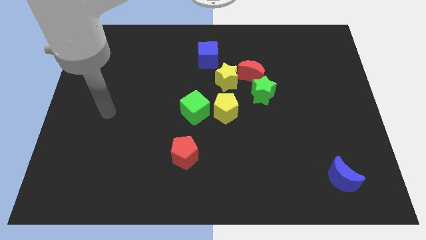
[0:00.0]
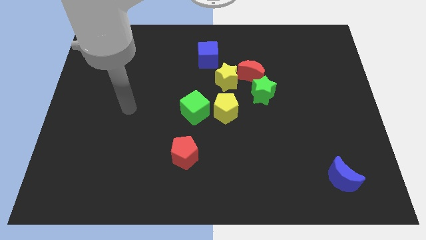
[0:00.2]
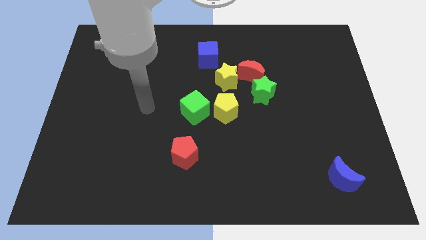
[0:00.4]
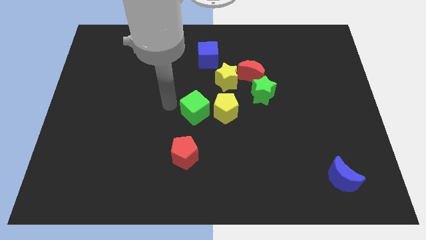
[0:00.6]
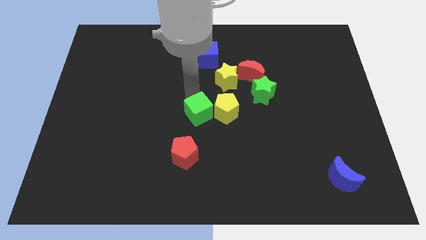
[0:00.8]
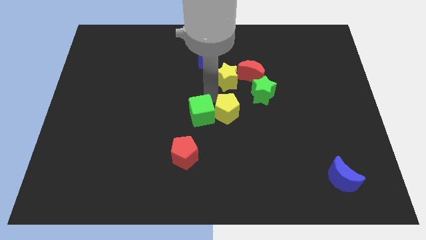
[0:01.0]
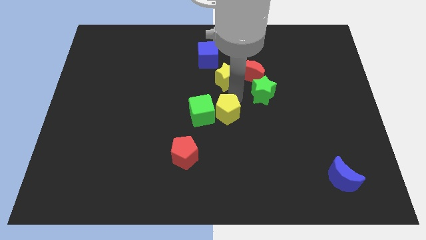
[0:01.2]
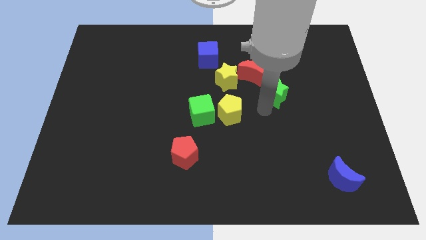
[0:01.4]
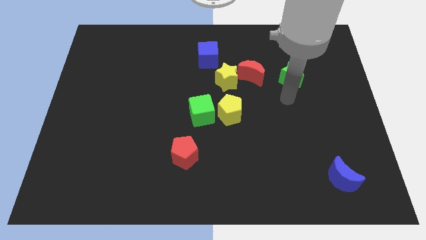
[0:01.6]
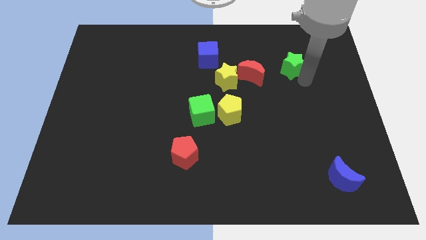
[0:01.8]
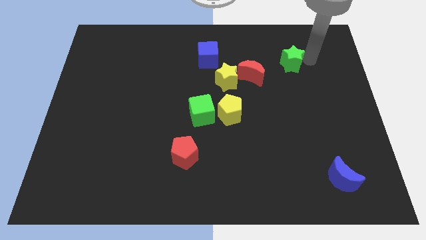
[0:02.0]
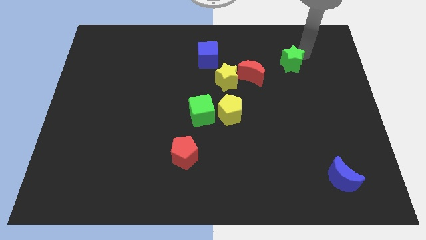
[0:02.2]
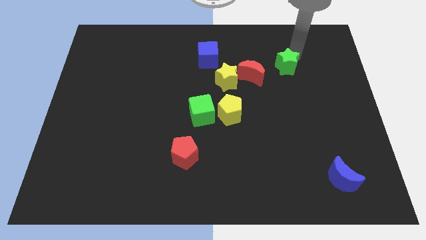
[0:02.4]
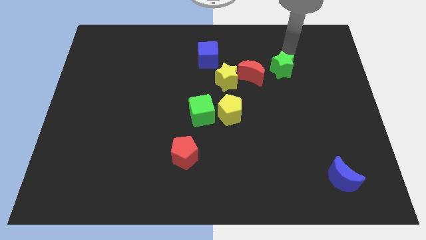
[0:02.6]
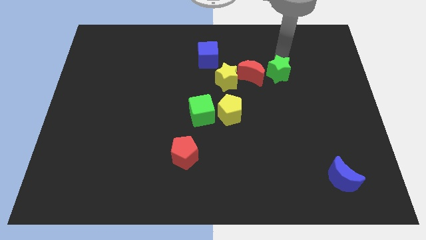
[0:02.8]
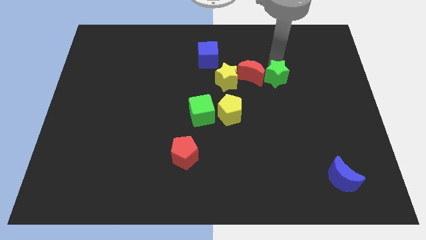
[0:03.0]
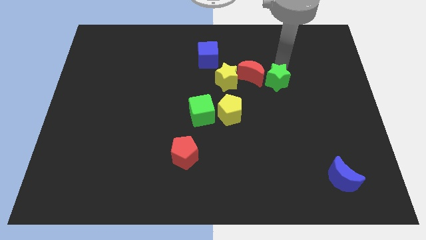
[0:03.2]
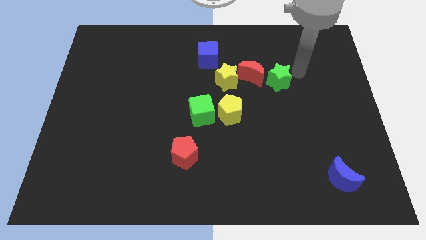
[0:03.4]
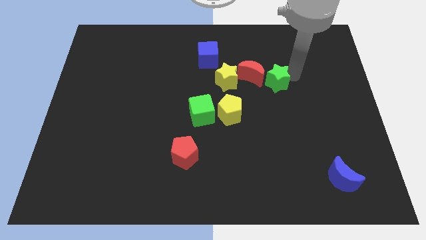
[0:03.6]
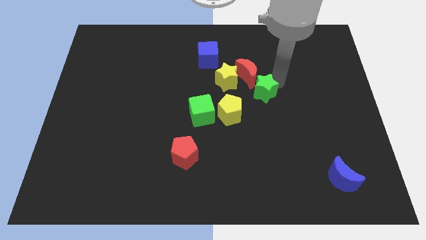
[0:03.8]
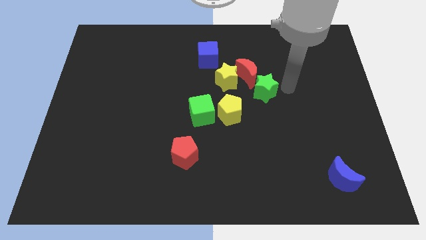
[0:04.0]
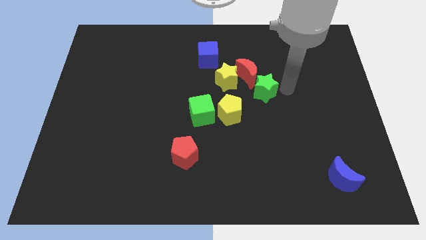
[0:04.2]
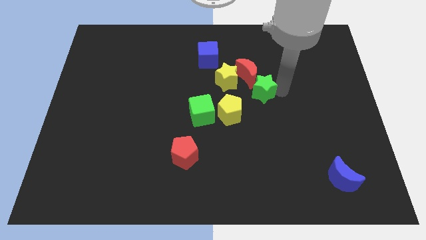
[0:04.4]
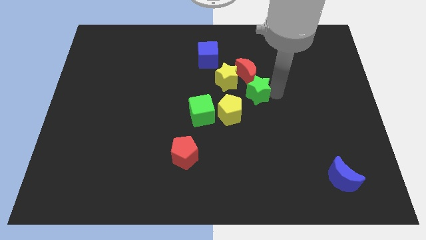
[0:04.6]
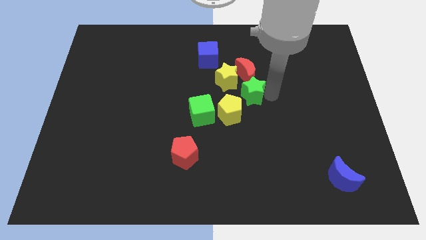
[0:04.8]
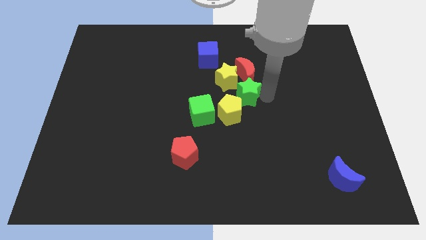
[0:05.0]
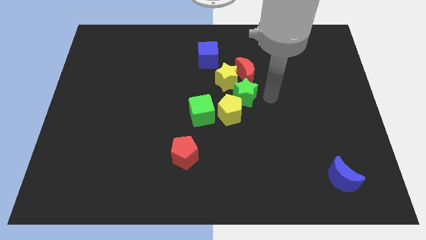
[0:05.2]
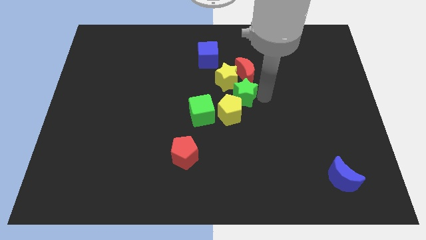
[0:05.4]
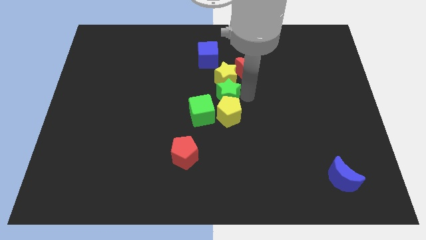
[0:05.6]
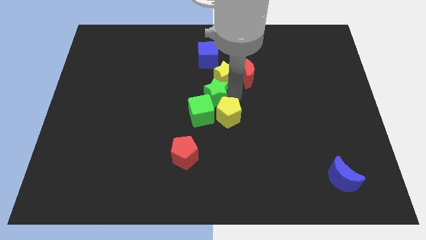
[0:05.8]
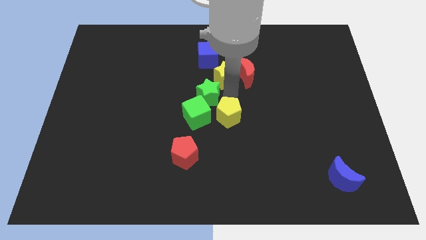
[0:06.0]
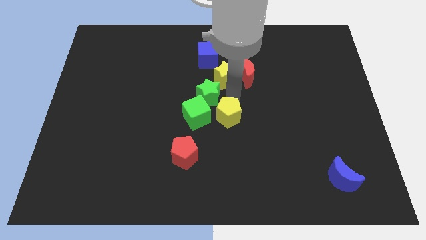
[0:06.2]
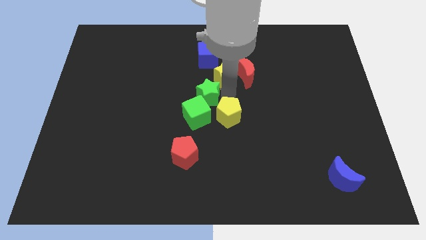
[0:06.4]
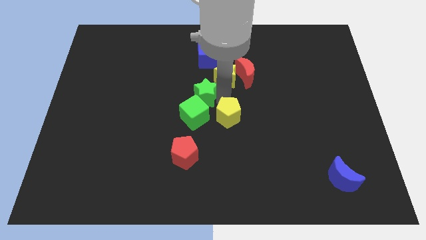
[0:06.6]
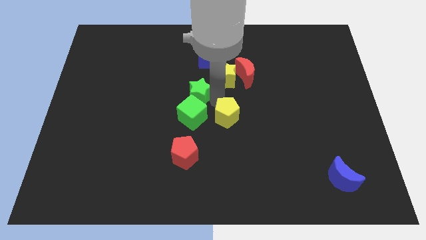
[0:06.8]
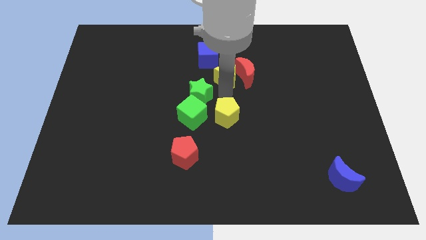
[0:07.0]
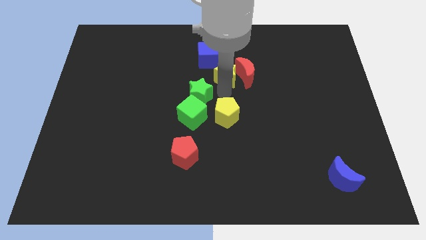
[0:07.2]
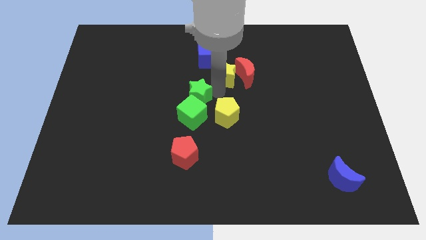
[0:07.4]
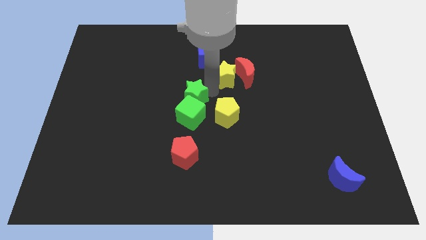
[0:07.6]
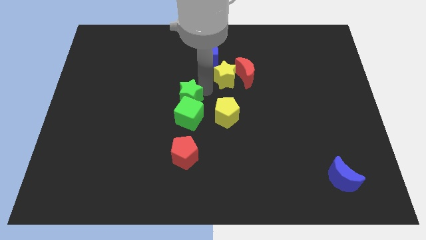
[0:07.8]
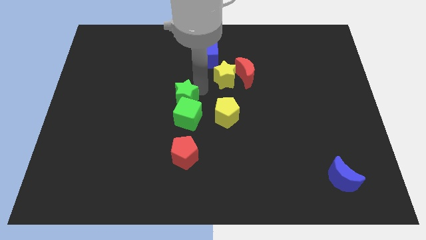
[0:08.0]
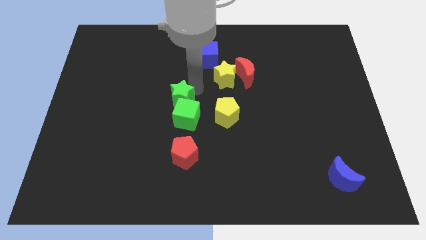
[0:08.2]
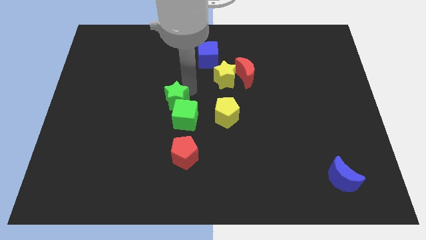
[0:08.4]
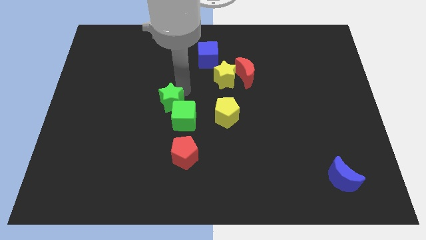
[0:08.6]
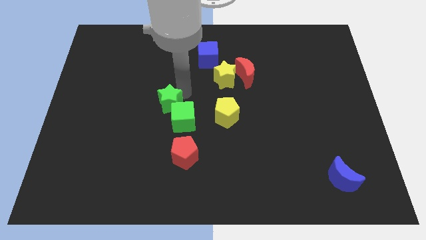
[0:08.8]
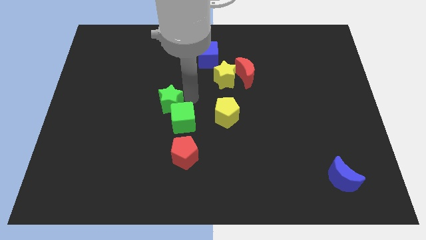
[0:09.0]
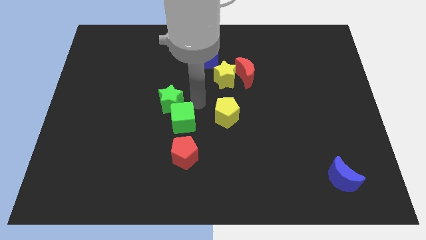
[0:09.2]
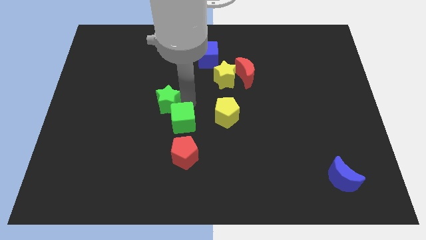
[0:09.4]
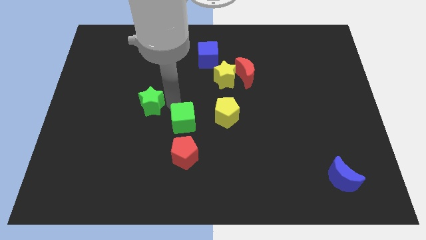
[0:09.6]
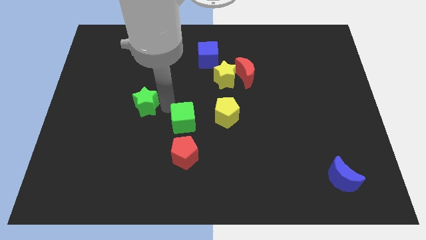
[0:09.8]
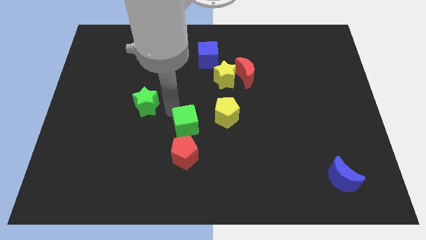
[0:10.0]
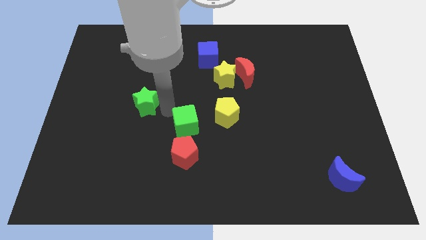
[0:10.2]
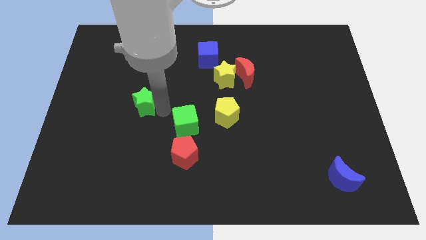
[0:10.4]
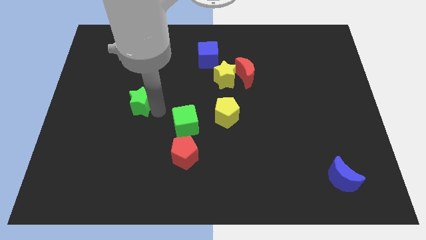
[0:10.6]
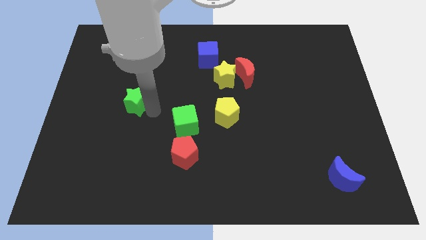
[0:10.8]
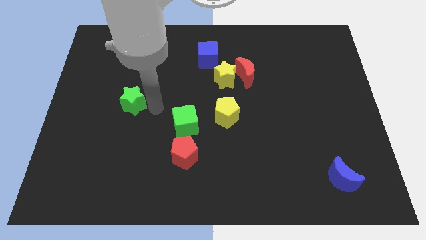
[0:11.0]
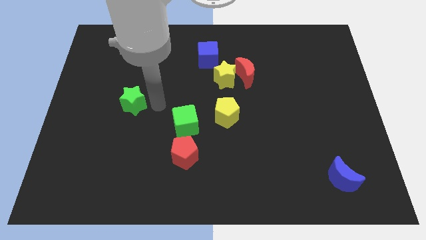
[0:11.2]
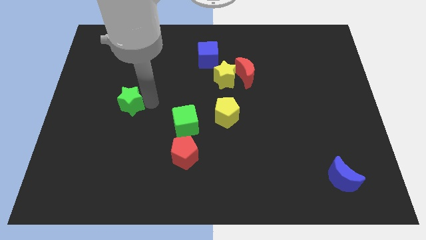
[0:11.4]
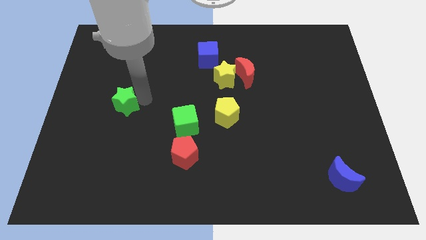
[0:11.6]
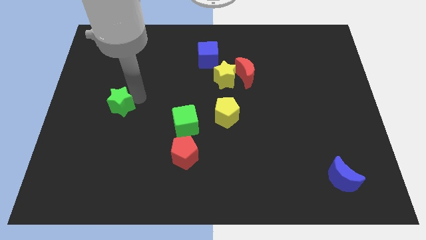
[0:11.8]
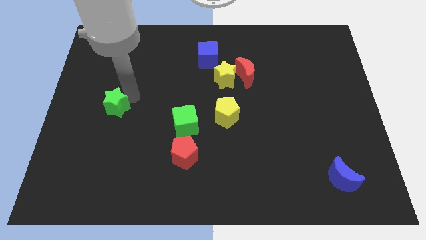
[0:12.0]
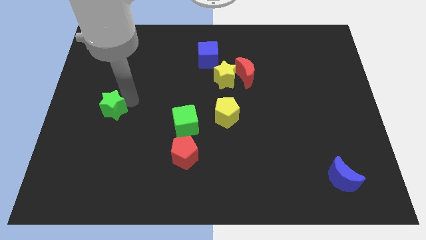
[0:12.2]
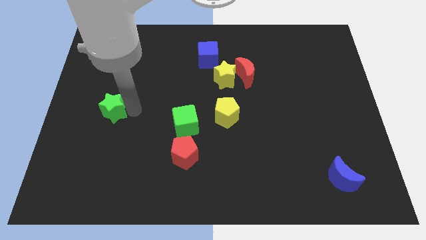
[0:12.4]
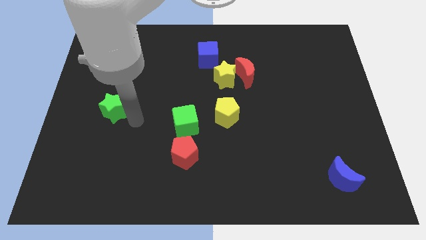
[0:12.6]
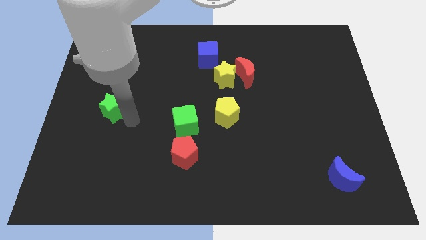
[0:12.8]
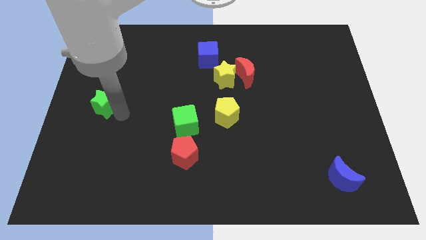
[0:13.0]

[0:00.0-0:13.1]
put the green star to the left side
